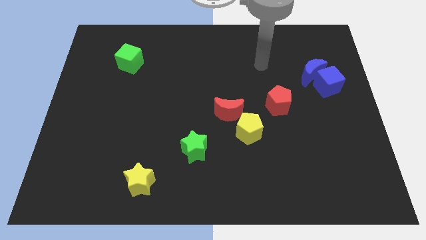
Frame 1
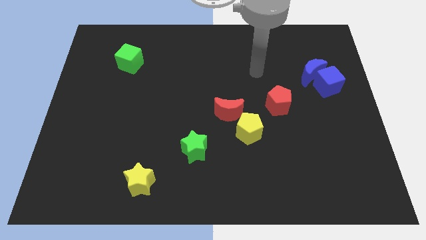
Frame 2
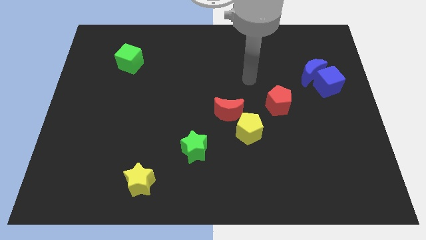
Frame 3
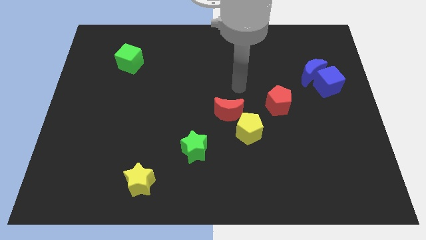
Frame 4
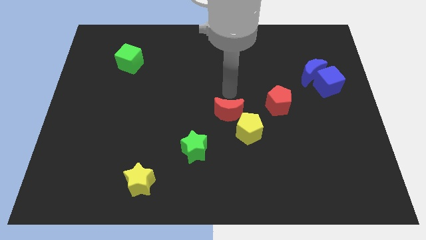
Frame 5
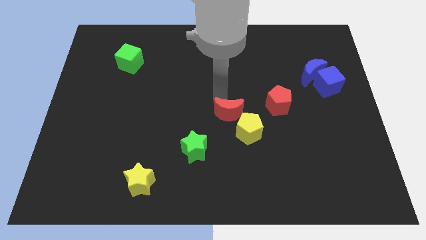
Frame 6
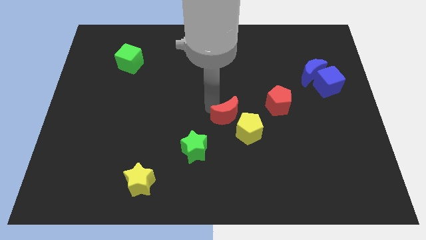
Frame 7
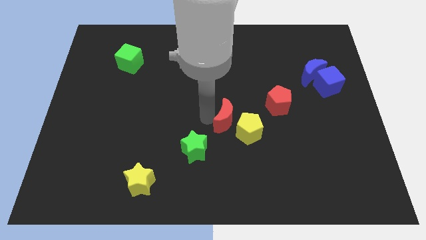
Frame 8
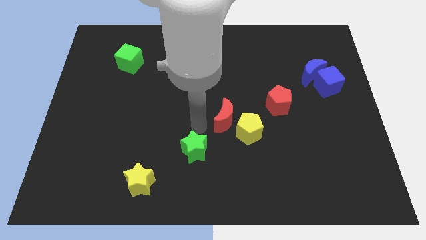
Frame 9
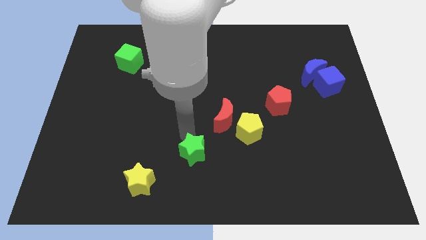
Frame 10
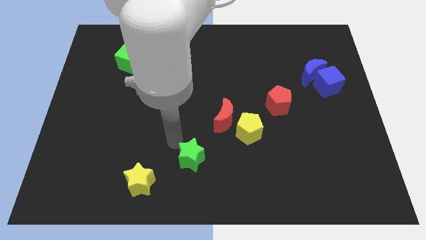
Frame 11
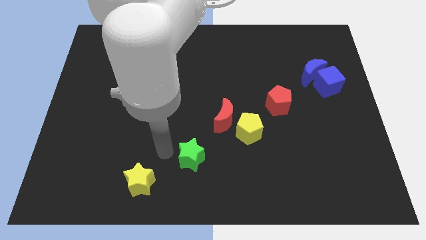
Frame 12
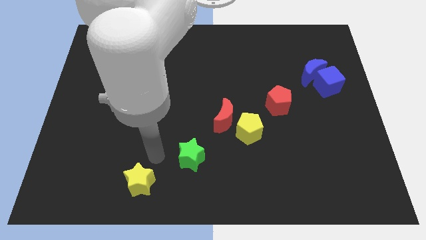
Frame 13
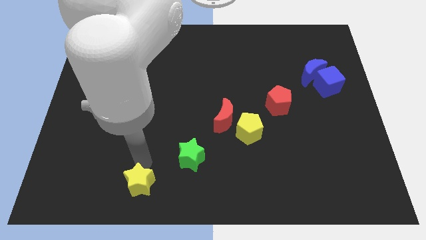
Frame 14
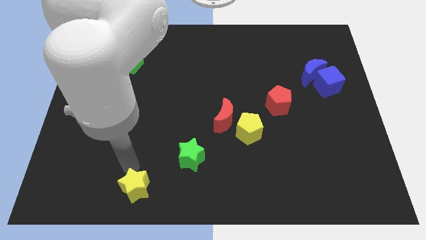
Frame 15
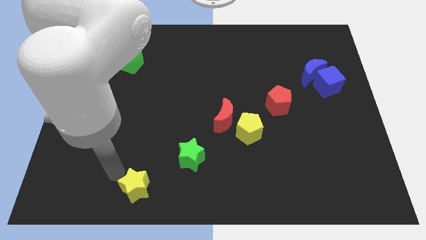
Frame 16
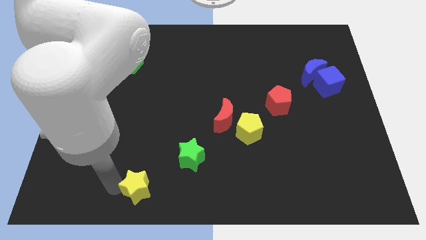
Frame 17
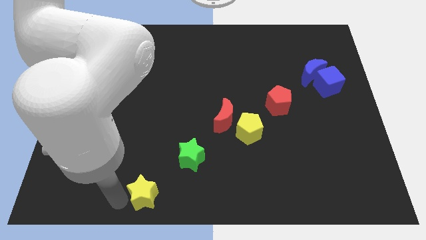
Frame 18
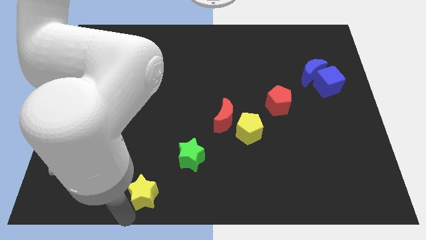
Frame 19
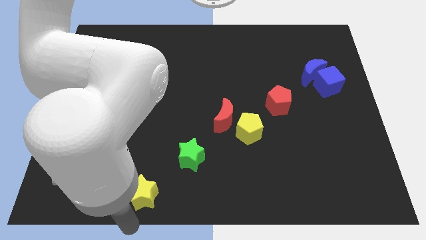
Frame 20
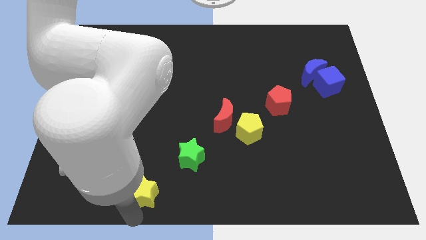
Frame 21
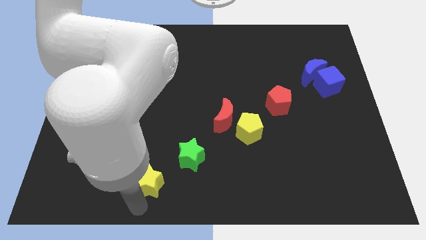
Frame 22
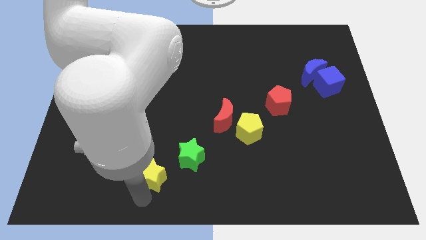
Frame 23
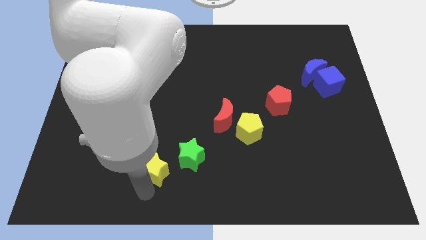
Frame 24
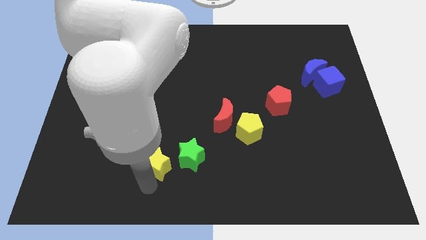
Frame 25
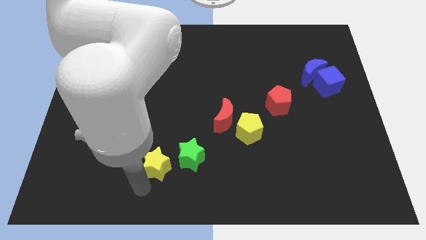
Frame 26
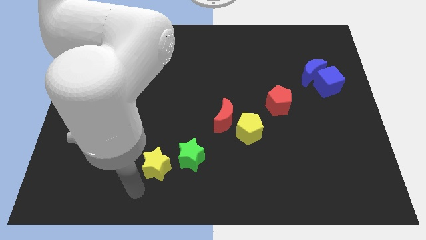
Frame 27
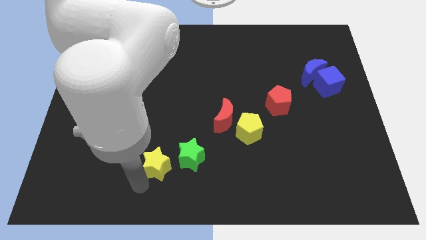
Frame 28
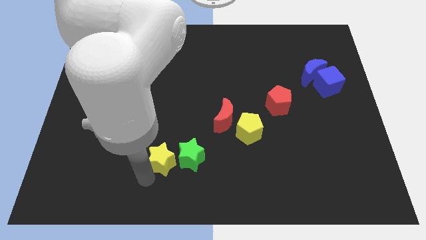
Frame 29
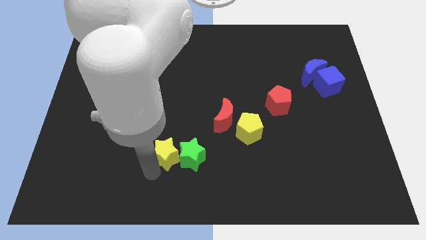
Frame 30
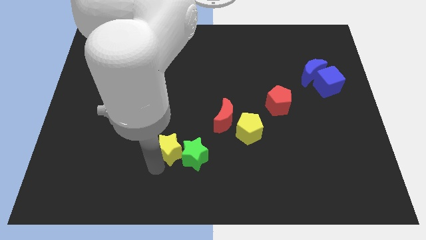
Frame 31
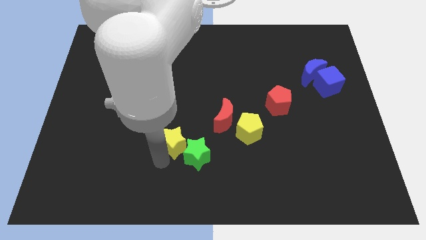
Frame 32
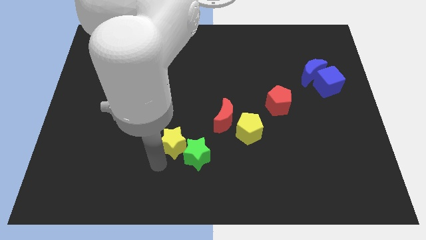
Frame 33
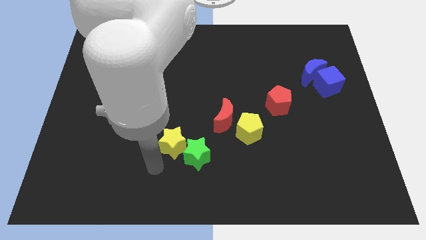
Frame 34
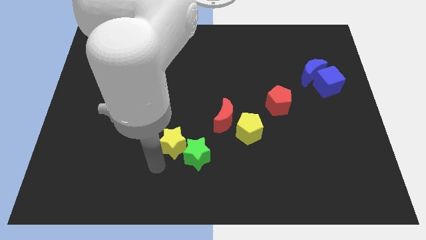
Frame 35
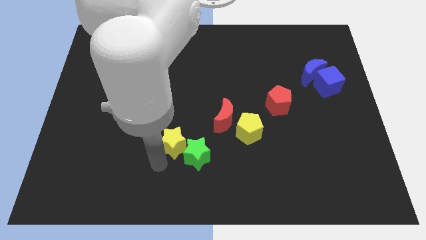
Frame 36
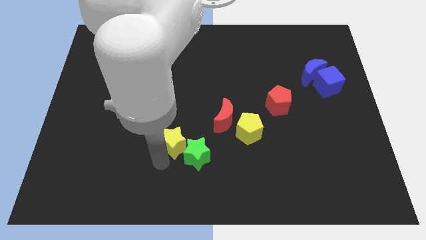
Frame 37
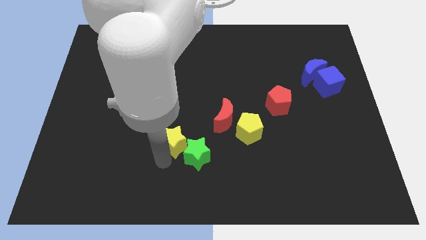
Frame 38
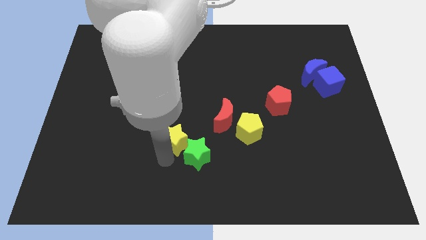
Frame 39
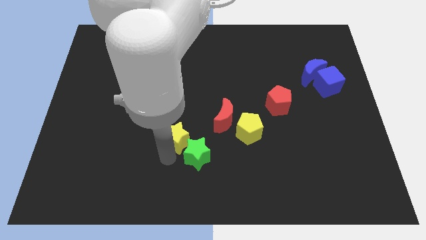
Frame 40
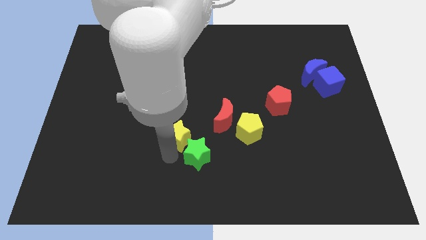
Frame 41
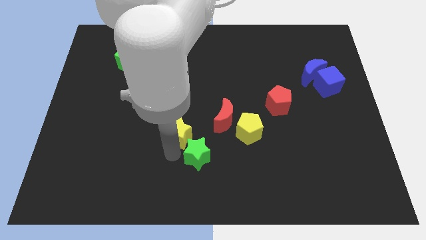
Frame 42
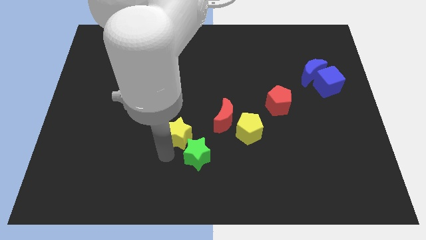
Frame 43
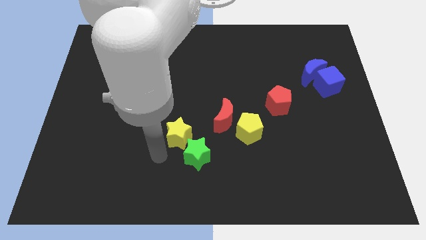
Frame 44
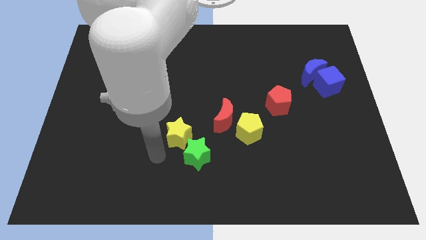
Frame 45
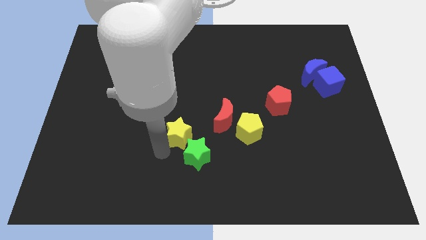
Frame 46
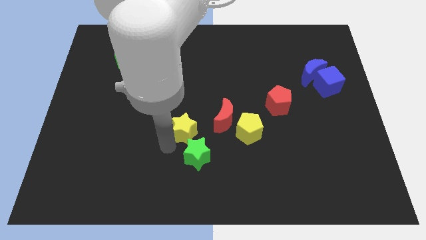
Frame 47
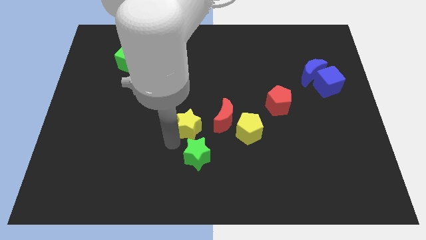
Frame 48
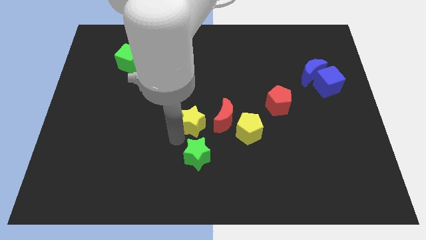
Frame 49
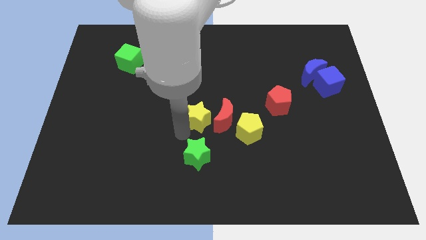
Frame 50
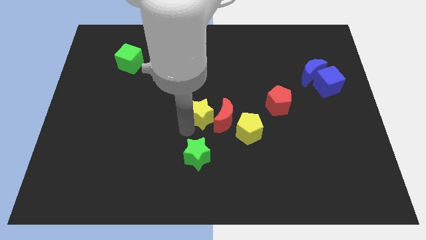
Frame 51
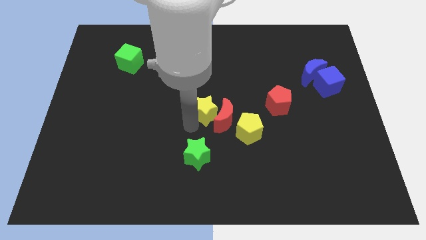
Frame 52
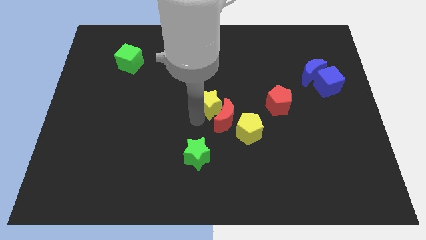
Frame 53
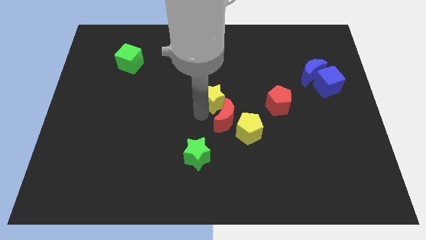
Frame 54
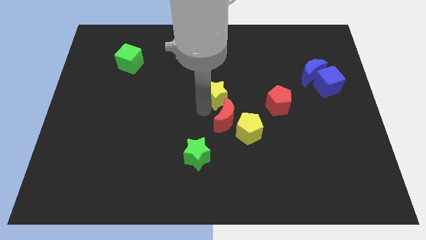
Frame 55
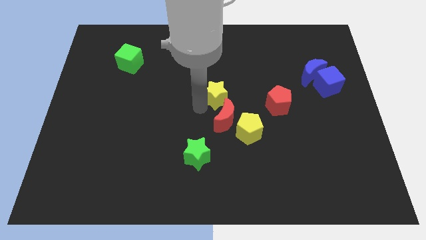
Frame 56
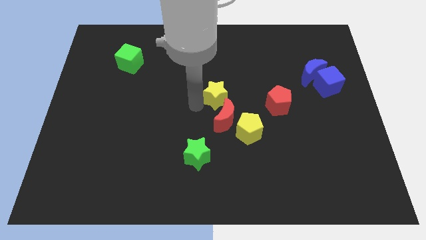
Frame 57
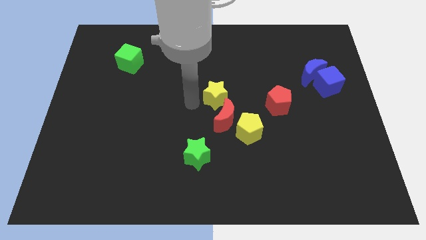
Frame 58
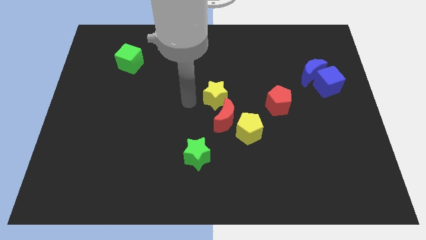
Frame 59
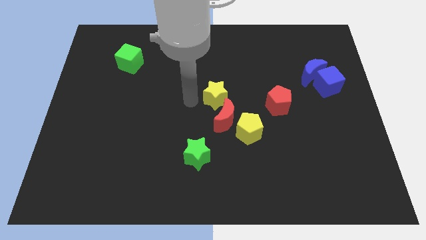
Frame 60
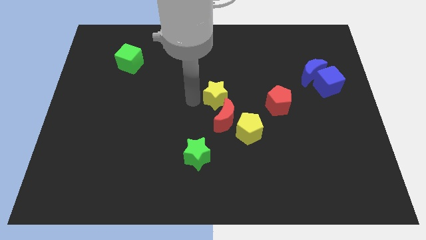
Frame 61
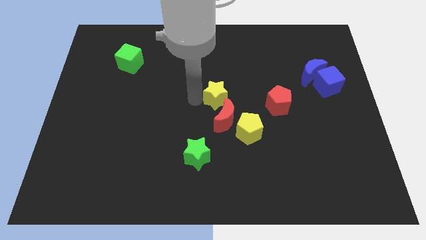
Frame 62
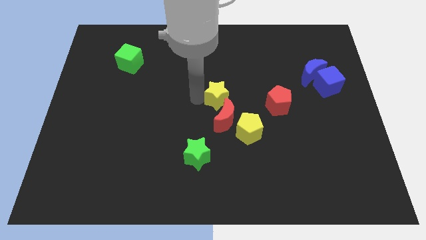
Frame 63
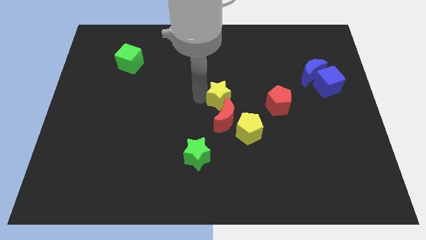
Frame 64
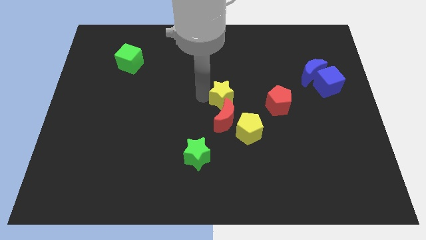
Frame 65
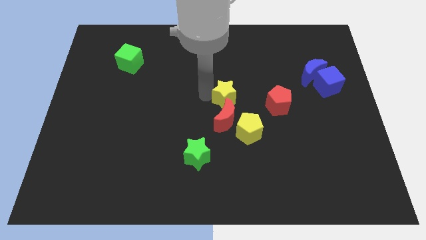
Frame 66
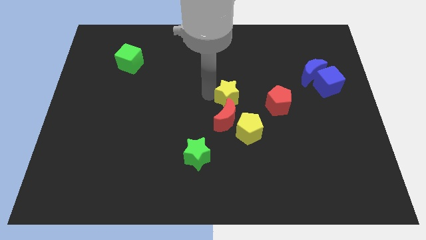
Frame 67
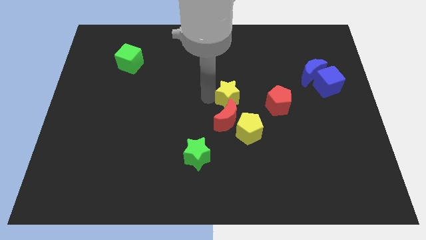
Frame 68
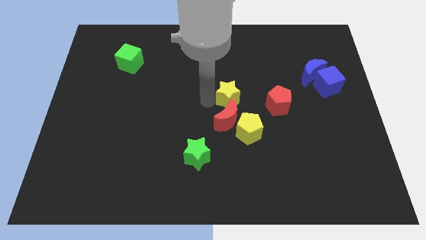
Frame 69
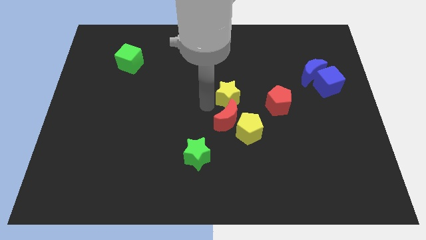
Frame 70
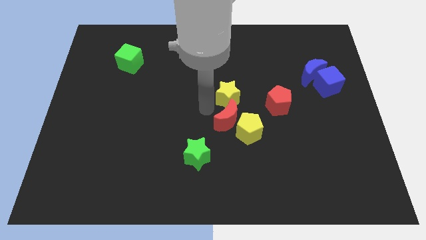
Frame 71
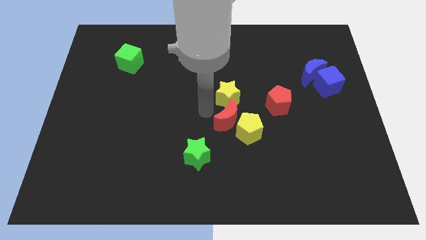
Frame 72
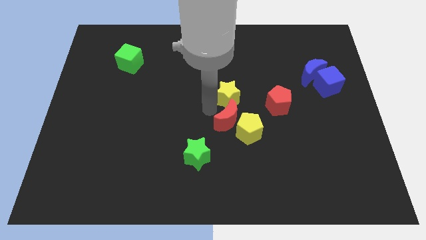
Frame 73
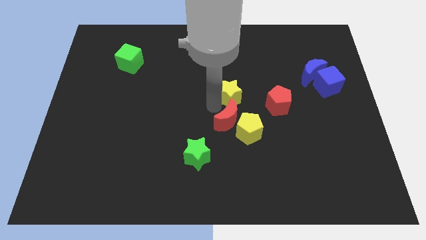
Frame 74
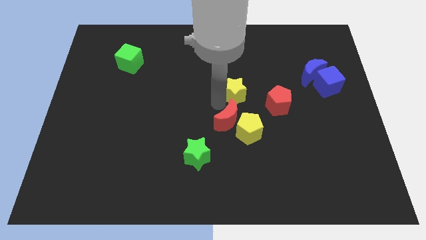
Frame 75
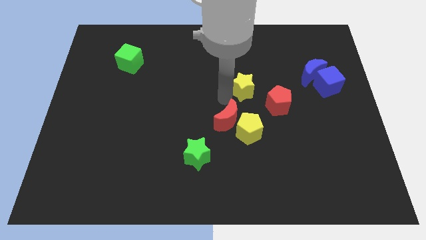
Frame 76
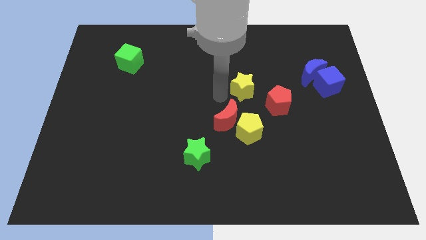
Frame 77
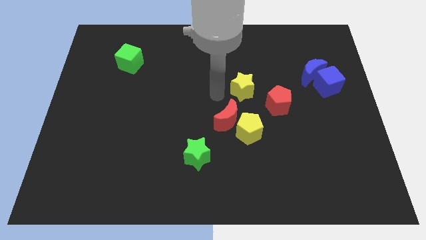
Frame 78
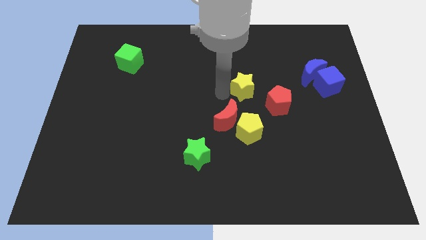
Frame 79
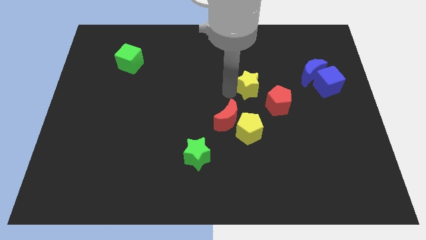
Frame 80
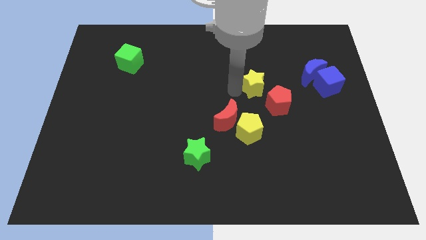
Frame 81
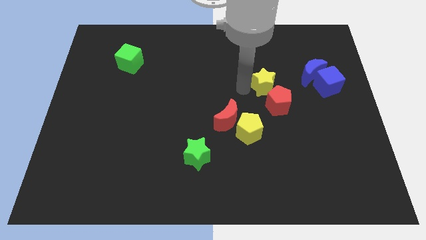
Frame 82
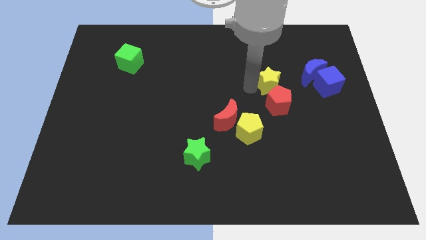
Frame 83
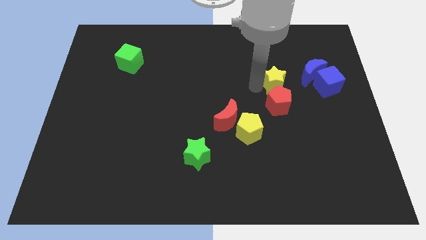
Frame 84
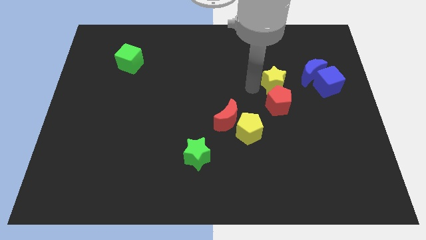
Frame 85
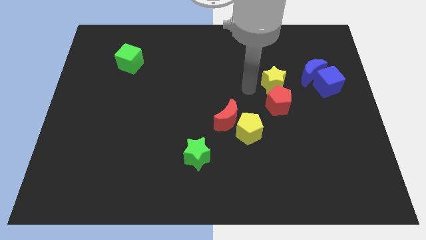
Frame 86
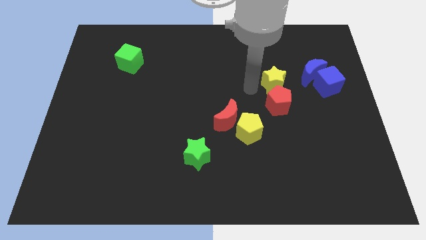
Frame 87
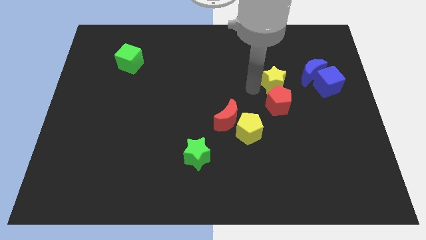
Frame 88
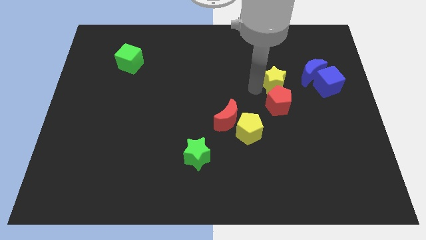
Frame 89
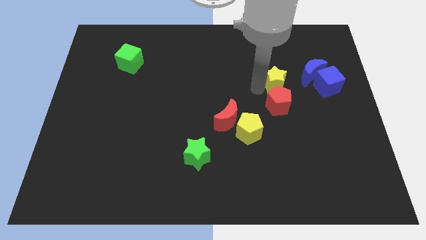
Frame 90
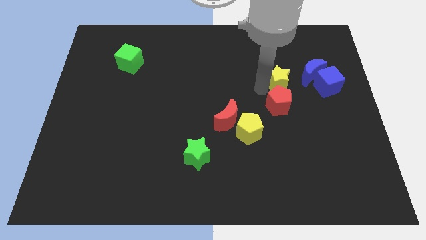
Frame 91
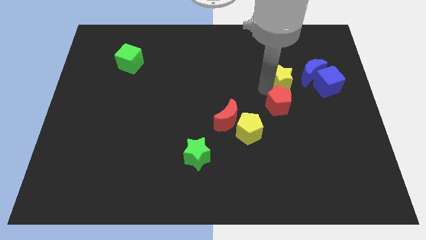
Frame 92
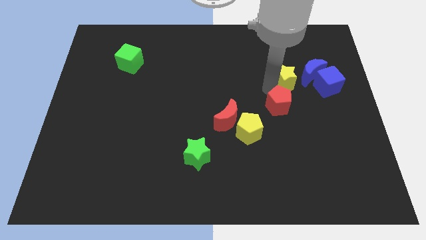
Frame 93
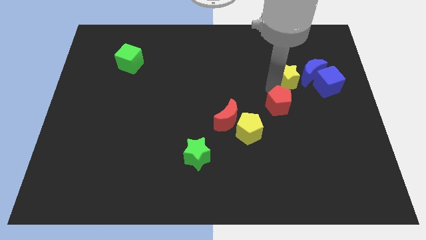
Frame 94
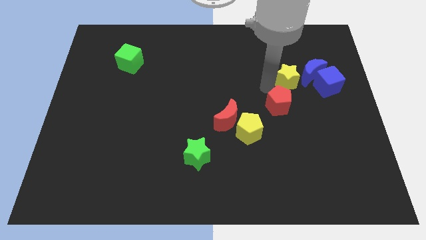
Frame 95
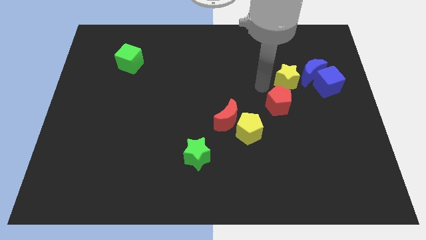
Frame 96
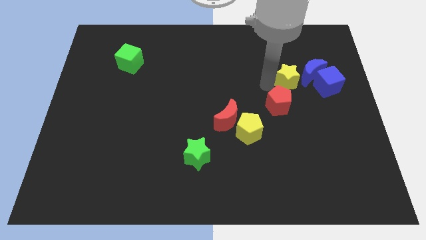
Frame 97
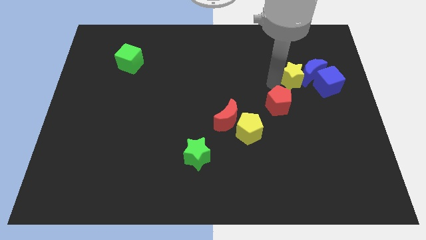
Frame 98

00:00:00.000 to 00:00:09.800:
slide the yellow star towards the blue moon
